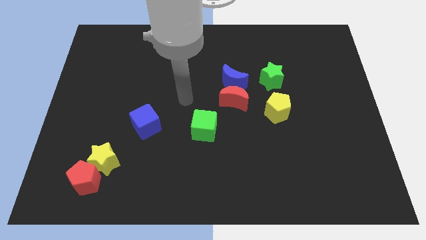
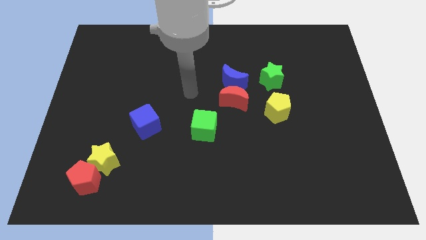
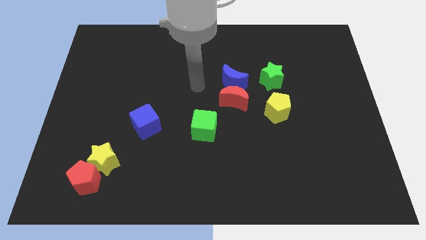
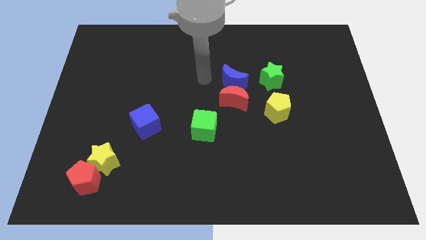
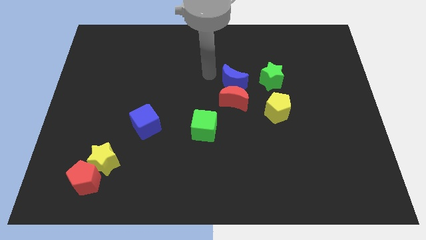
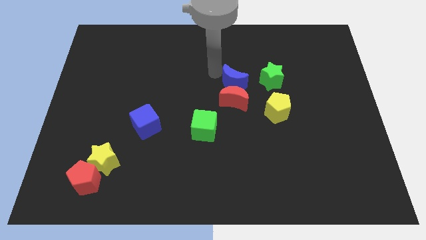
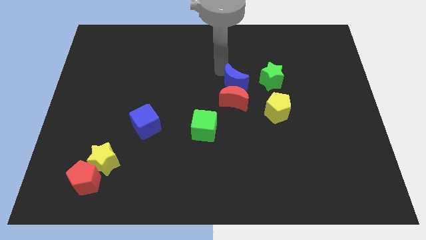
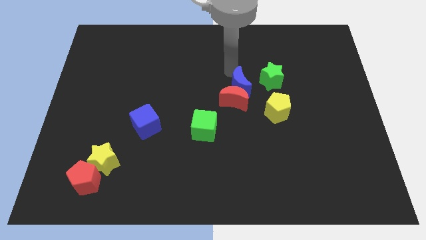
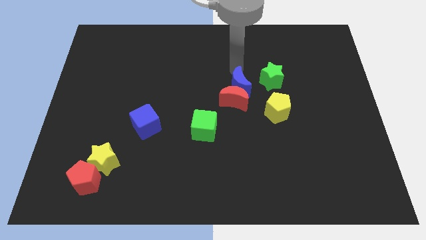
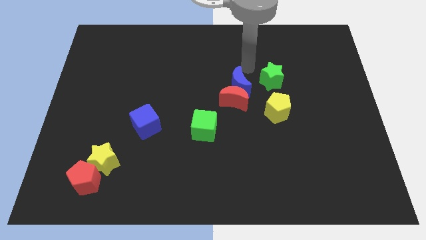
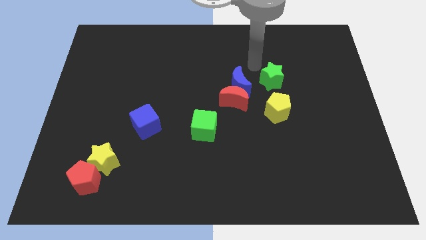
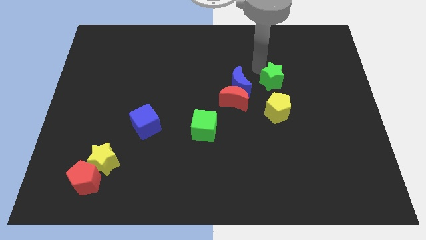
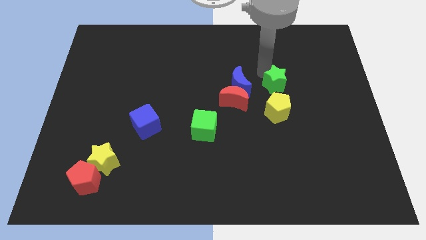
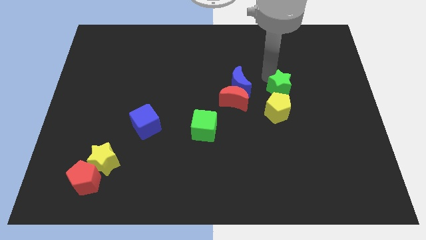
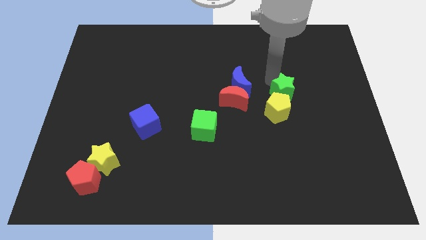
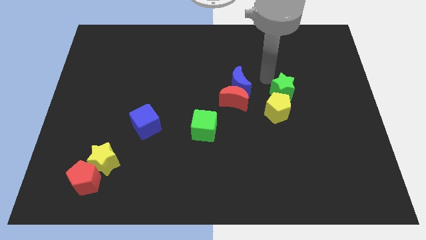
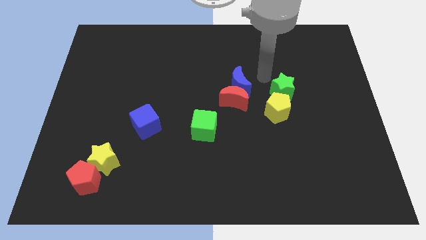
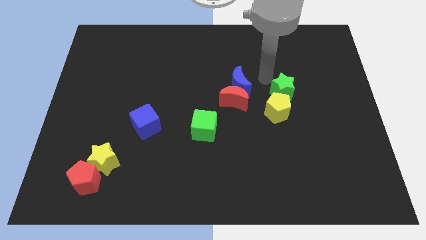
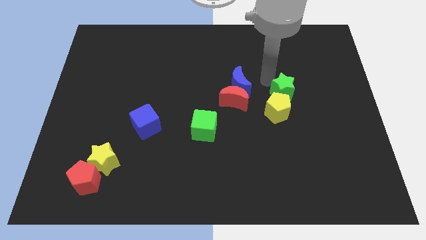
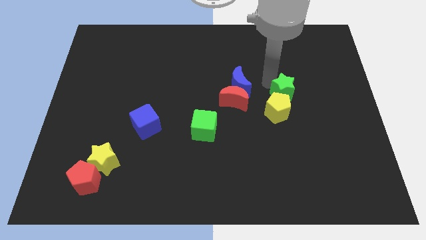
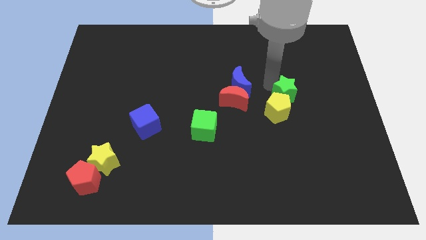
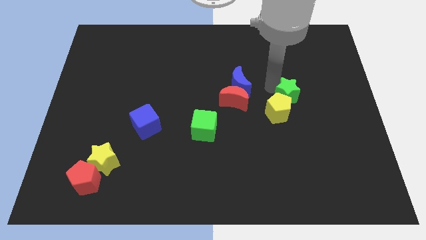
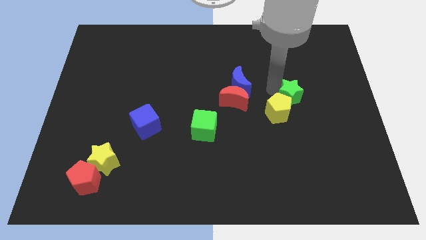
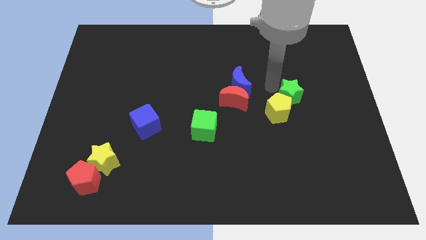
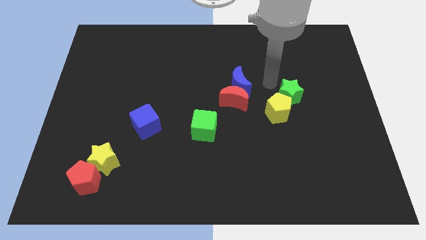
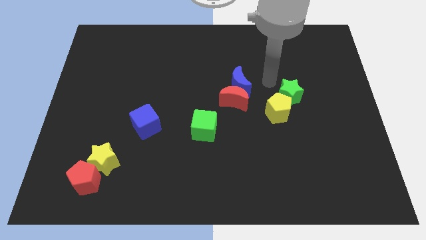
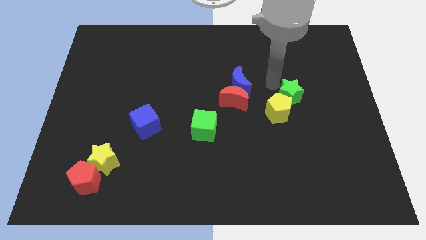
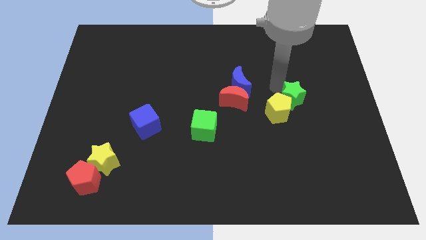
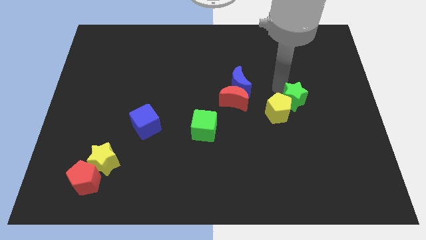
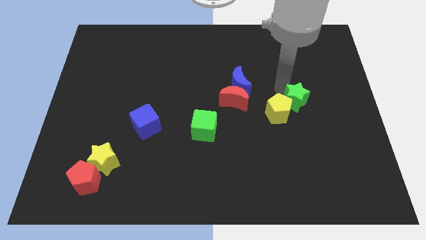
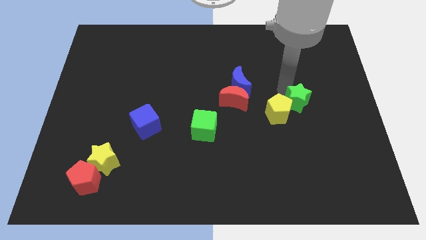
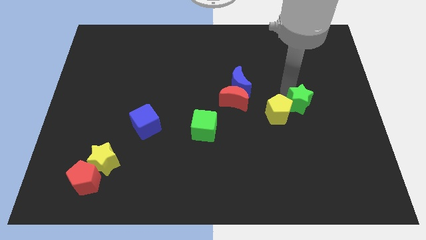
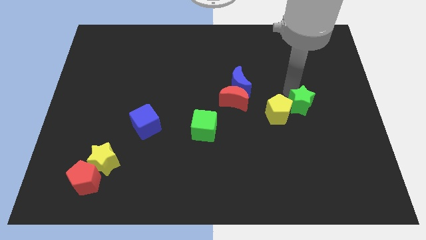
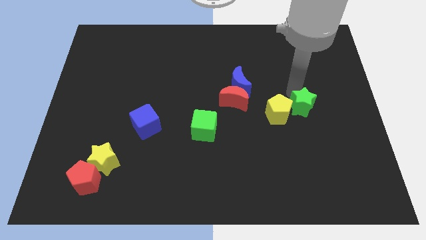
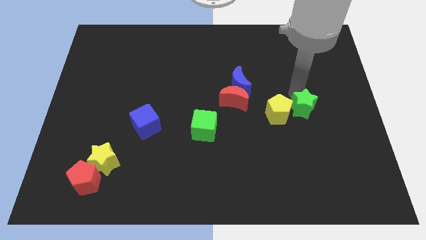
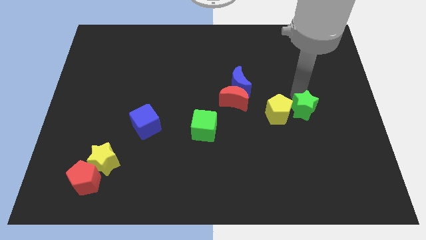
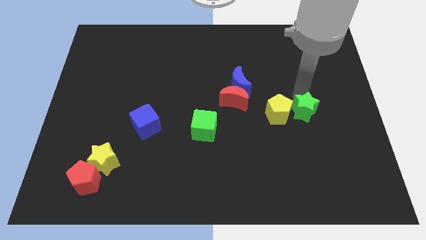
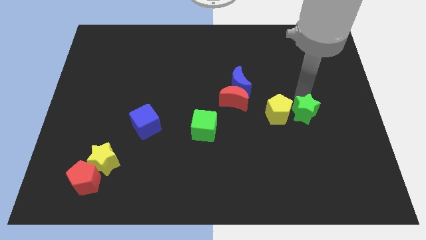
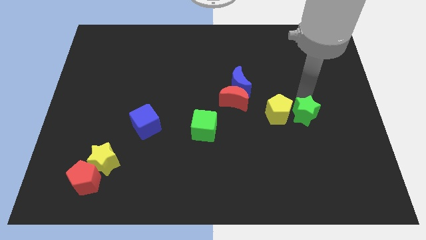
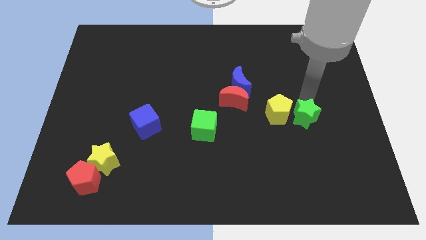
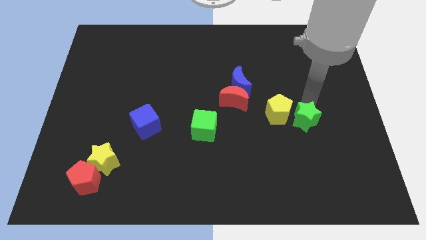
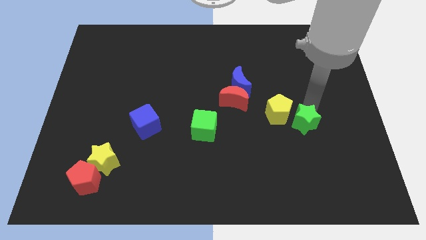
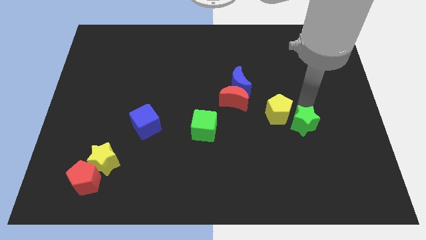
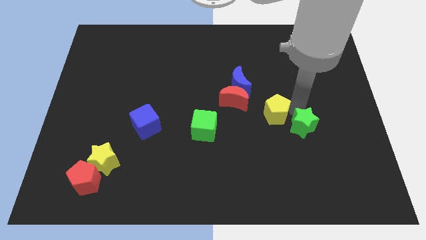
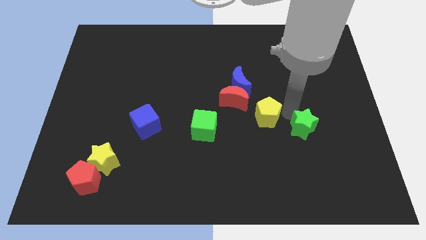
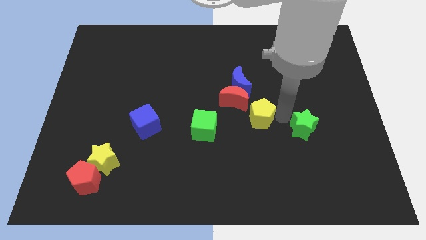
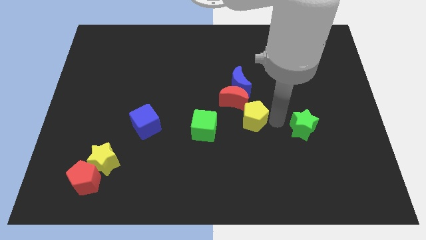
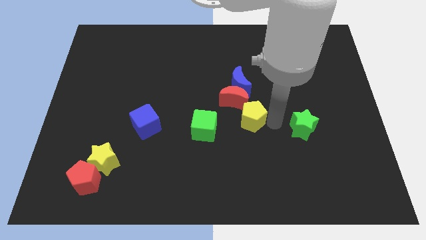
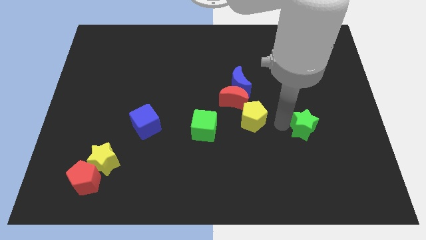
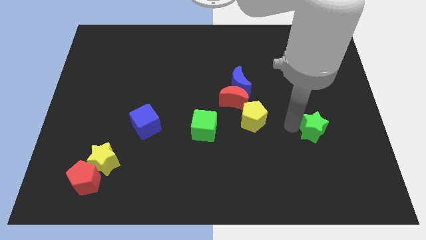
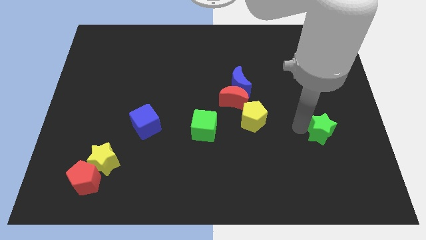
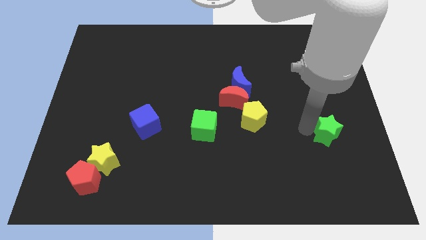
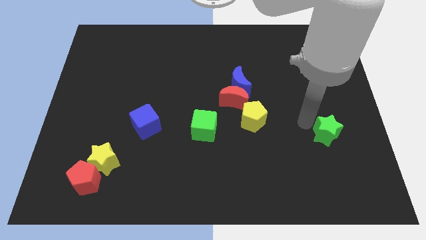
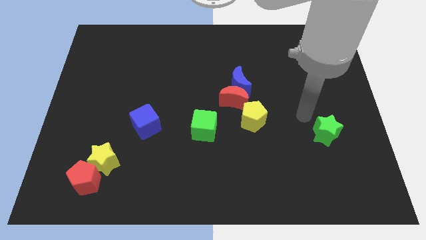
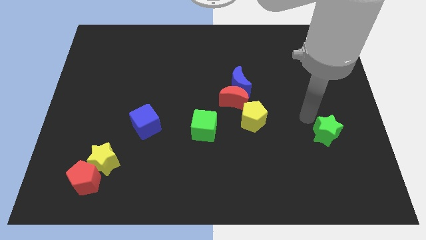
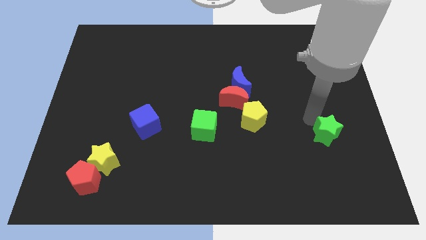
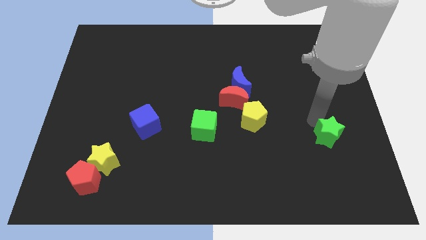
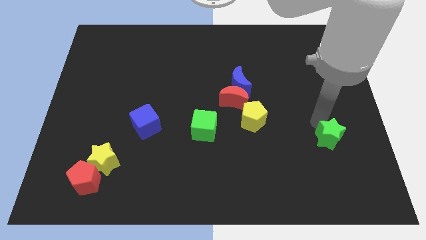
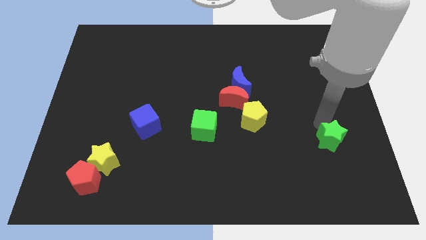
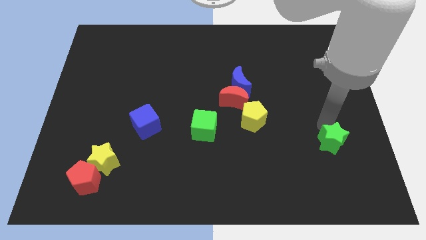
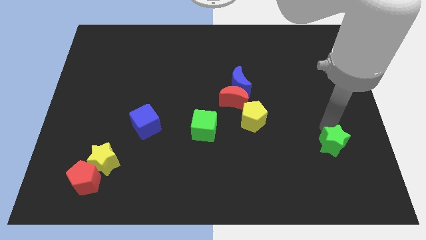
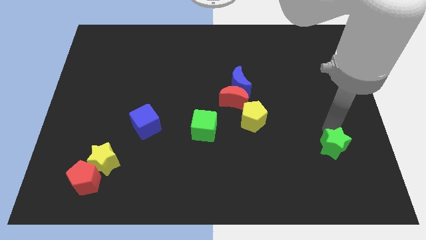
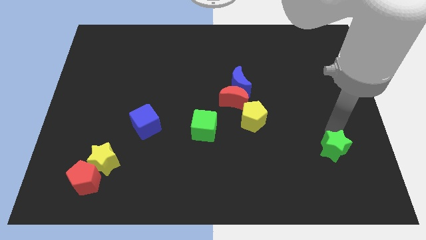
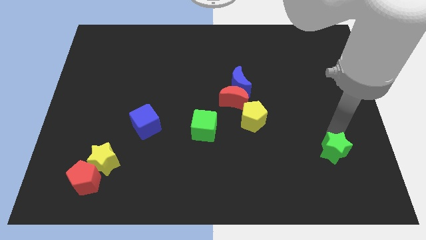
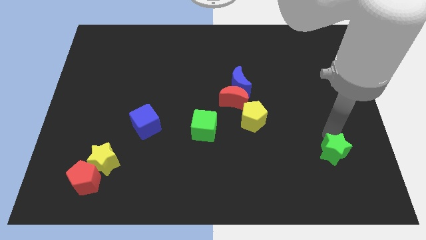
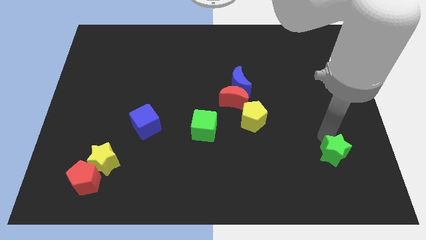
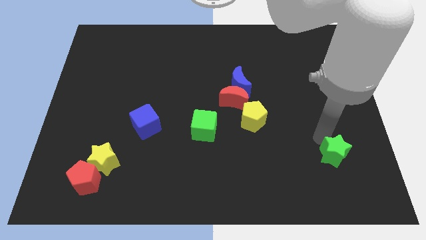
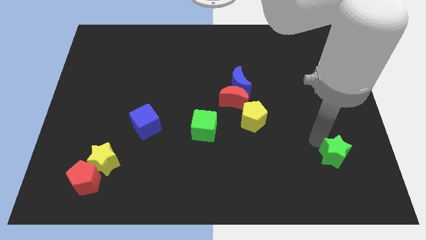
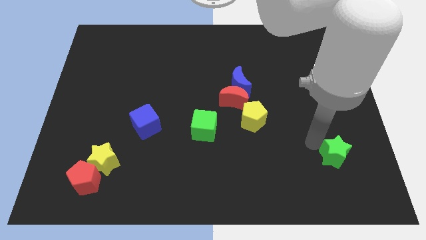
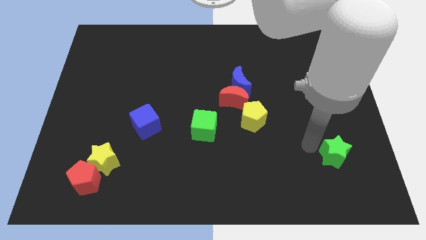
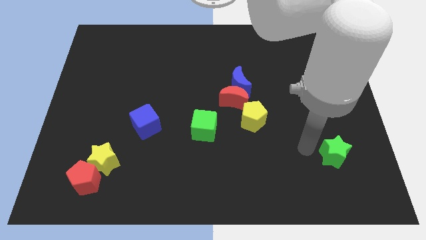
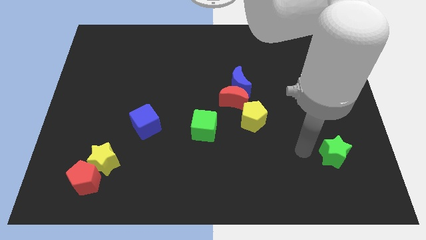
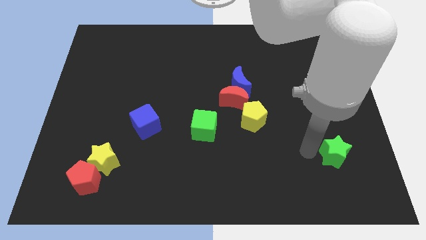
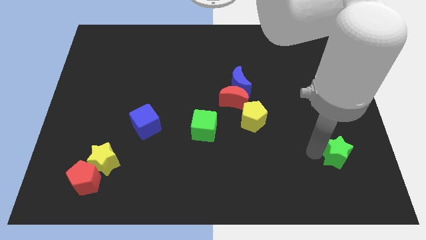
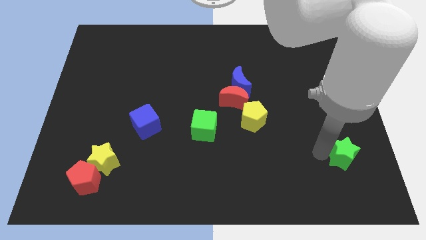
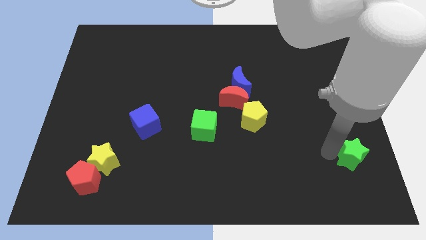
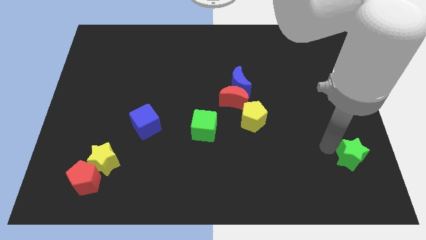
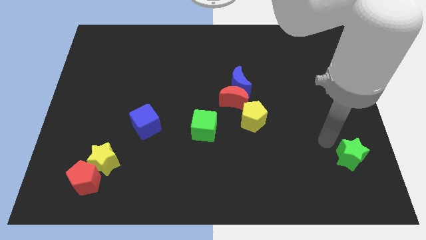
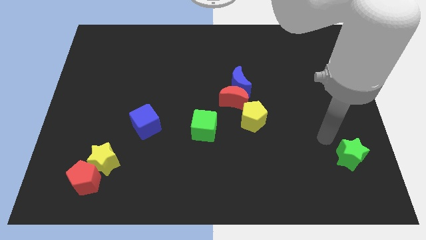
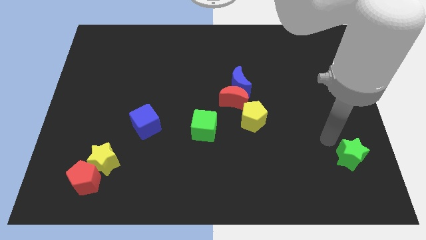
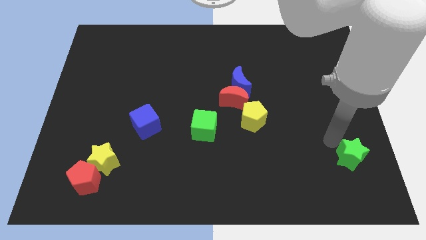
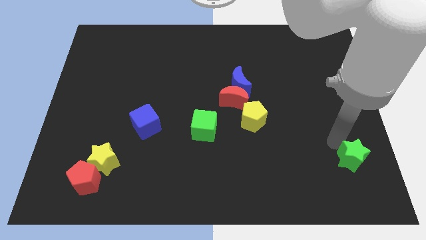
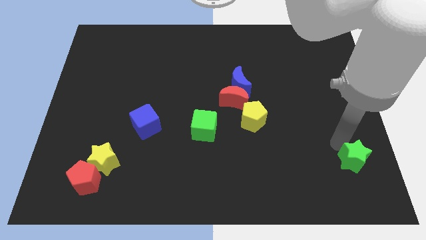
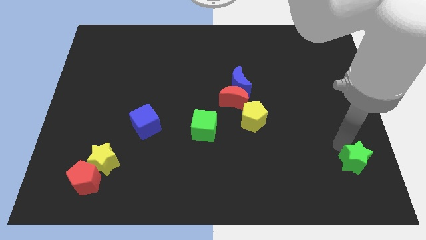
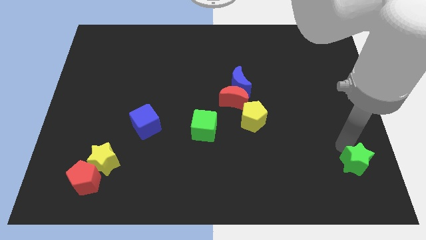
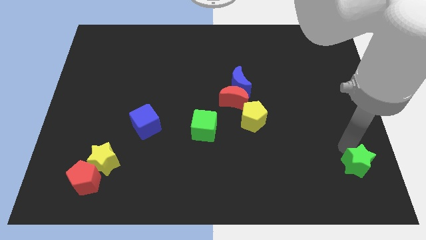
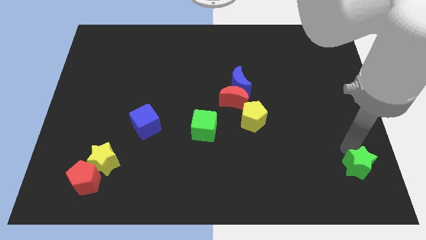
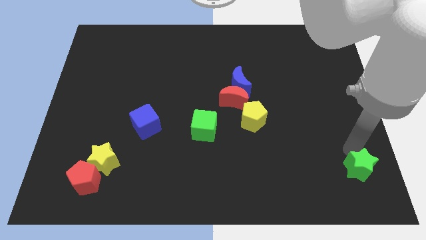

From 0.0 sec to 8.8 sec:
push the green star to the bottom right
